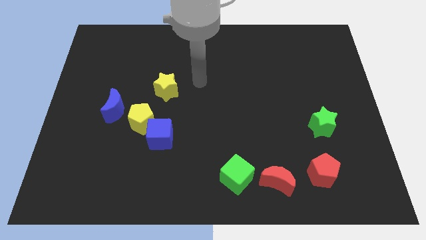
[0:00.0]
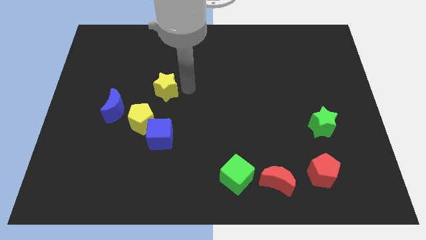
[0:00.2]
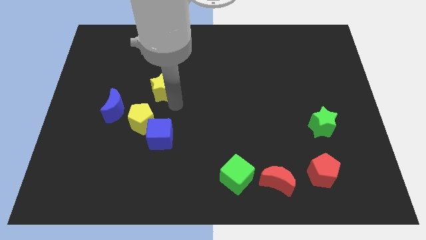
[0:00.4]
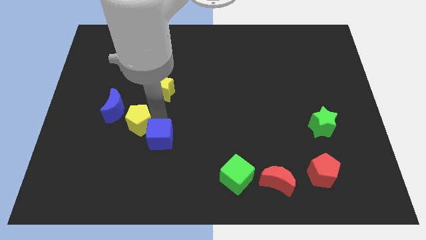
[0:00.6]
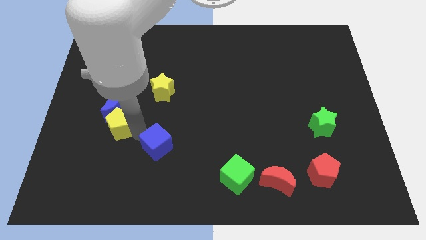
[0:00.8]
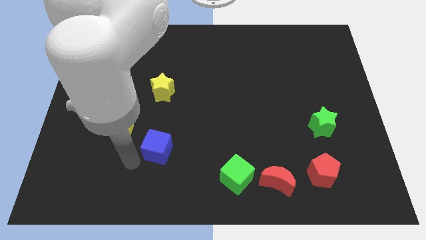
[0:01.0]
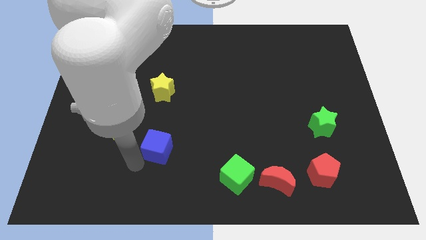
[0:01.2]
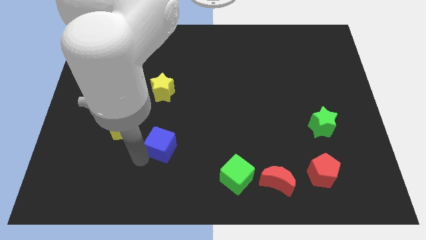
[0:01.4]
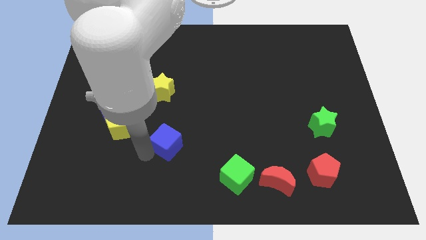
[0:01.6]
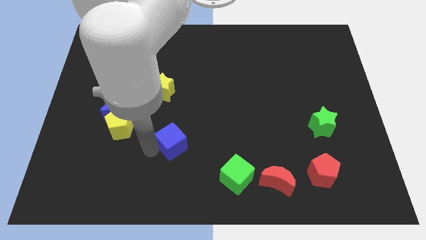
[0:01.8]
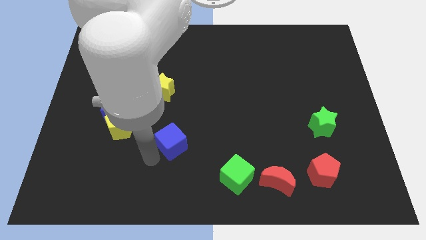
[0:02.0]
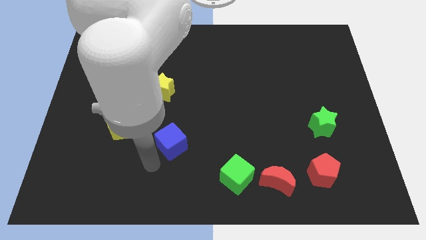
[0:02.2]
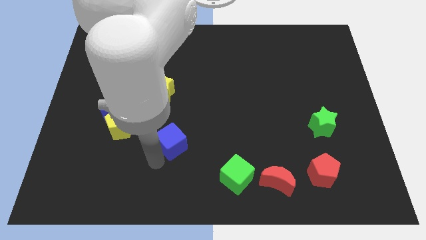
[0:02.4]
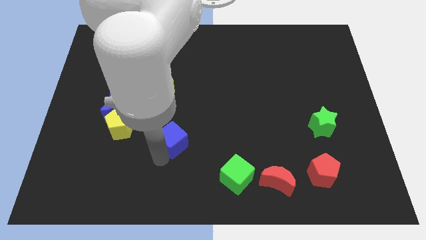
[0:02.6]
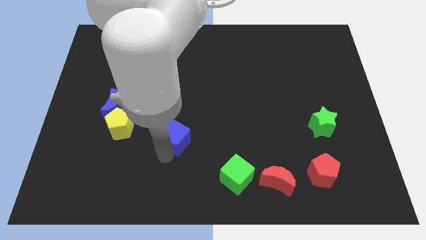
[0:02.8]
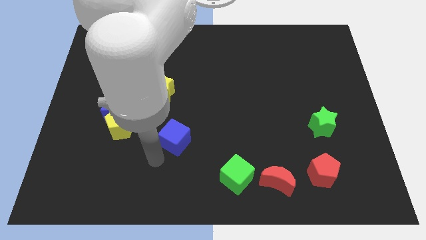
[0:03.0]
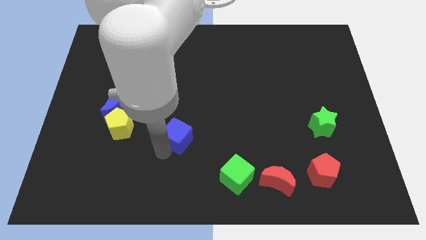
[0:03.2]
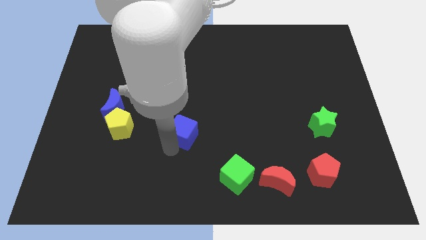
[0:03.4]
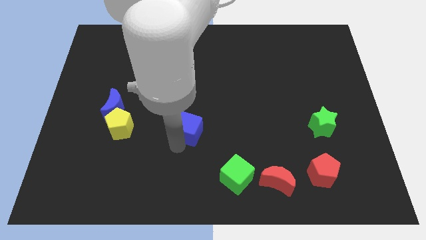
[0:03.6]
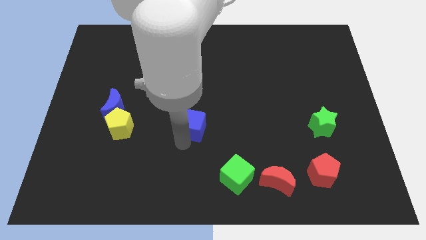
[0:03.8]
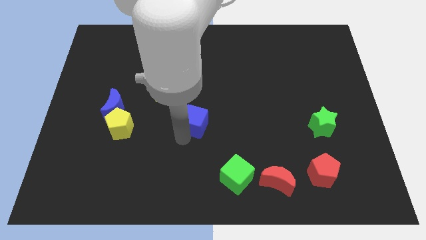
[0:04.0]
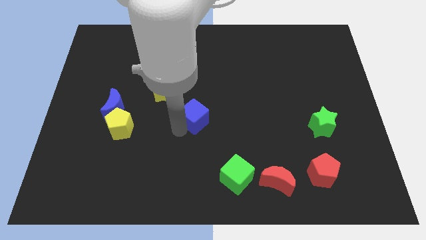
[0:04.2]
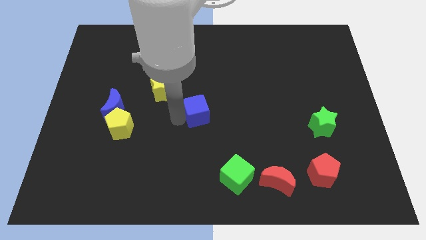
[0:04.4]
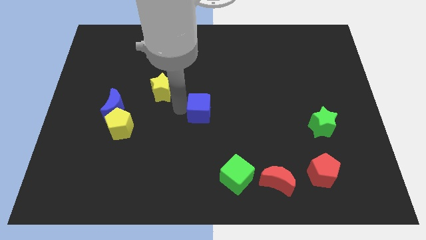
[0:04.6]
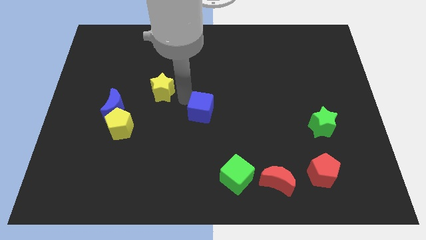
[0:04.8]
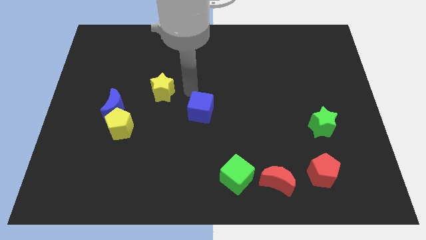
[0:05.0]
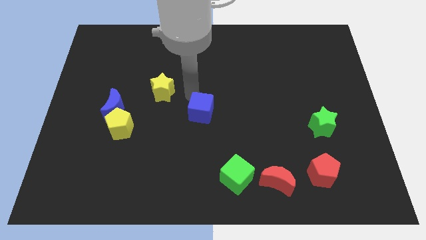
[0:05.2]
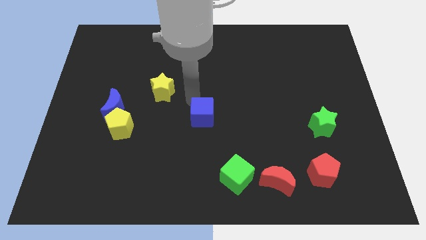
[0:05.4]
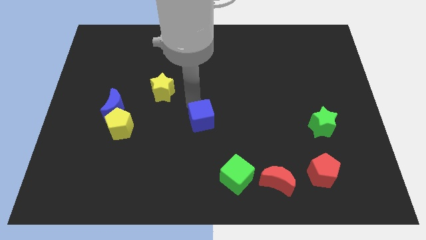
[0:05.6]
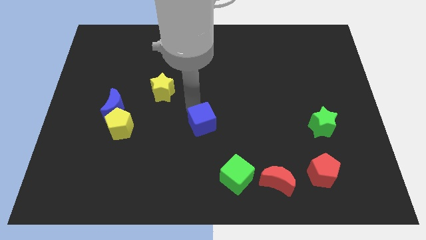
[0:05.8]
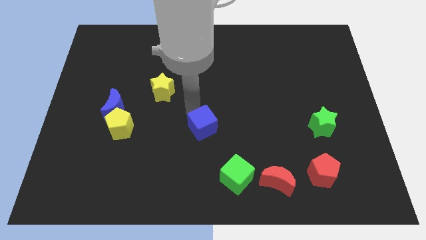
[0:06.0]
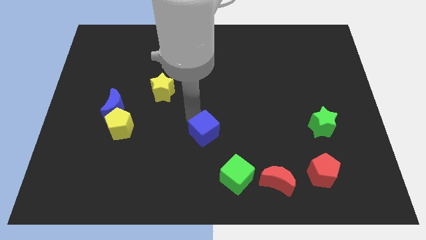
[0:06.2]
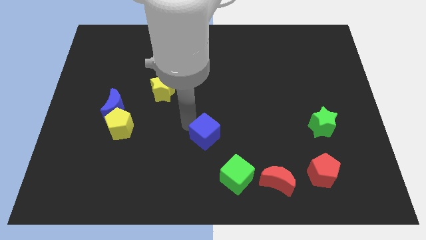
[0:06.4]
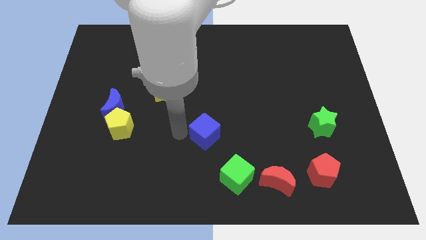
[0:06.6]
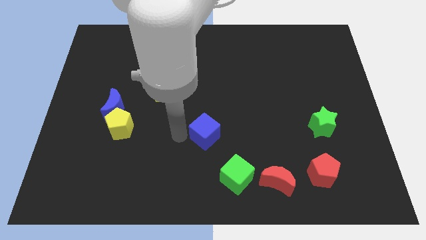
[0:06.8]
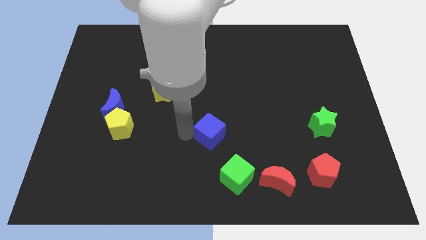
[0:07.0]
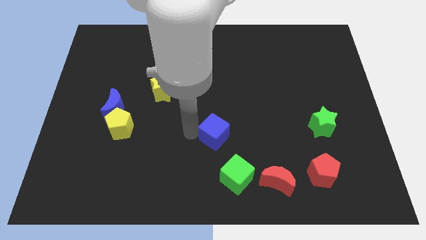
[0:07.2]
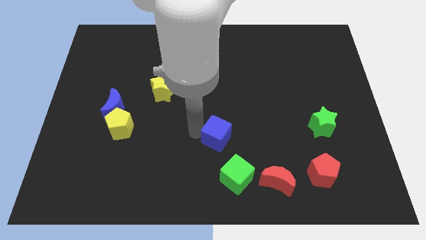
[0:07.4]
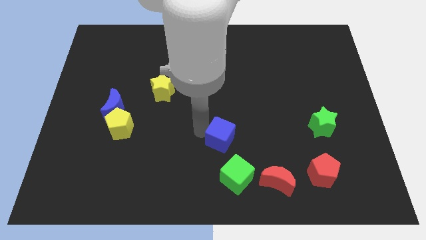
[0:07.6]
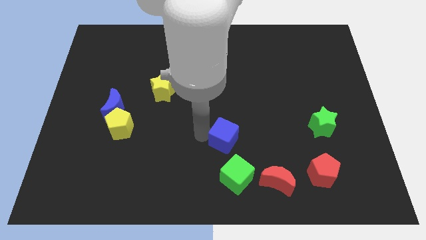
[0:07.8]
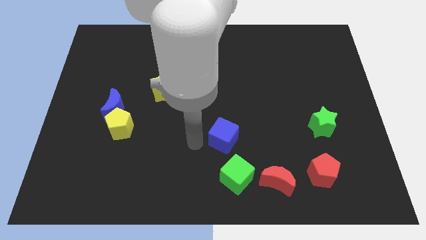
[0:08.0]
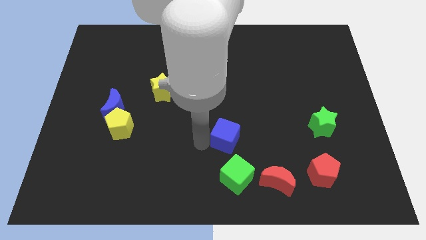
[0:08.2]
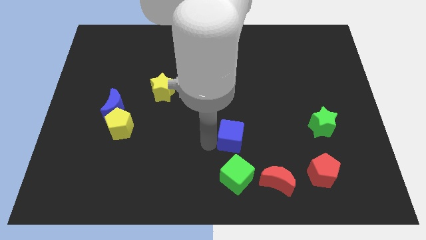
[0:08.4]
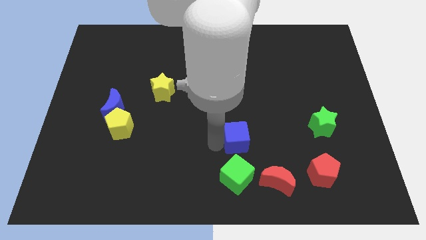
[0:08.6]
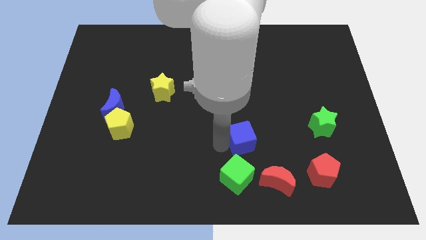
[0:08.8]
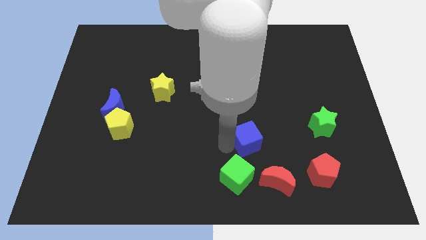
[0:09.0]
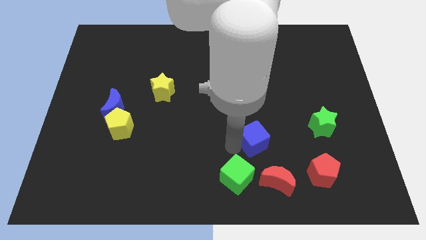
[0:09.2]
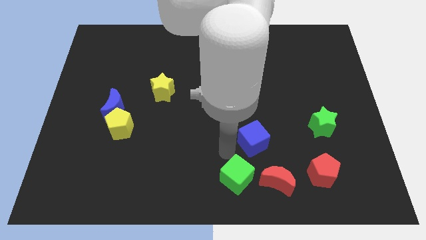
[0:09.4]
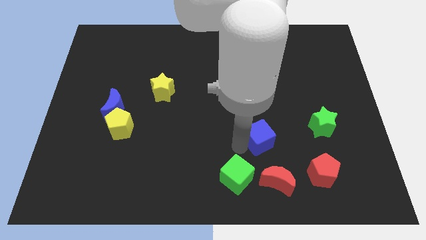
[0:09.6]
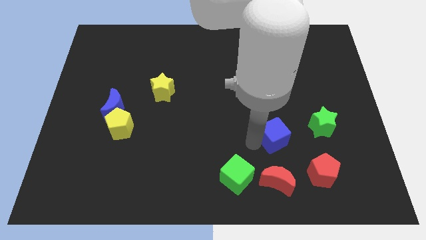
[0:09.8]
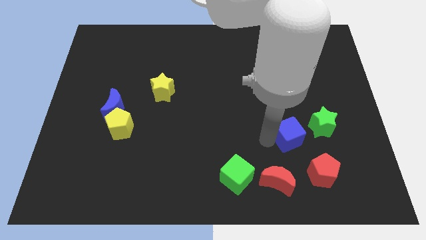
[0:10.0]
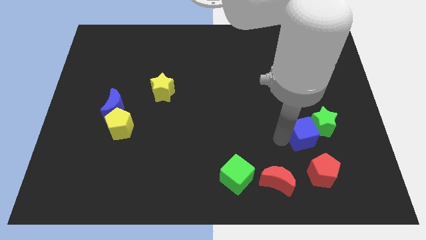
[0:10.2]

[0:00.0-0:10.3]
put the blue cube close to the green star

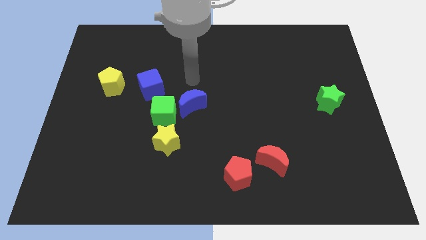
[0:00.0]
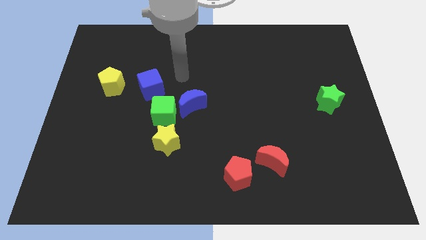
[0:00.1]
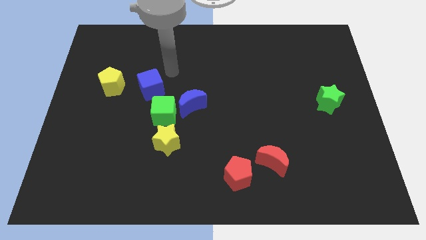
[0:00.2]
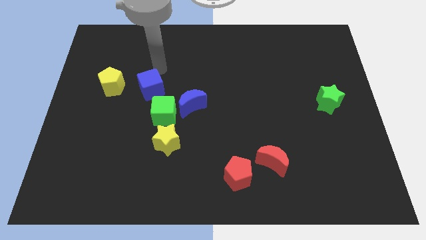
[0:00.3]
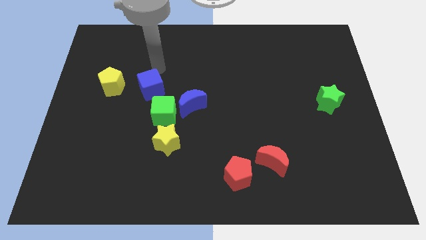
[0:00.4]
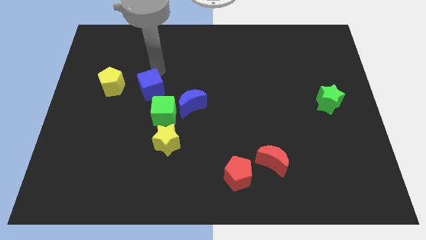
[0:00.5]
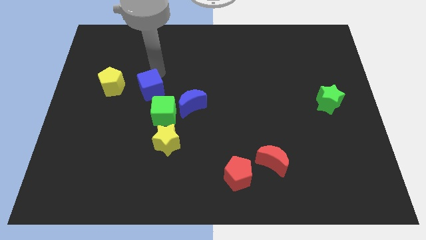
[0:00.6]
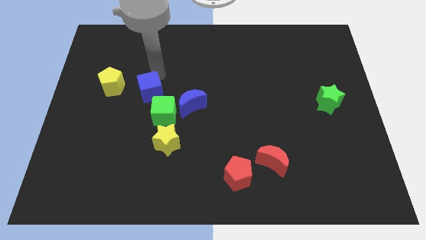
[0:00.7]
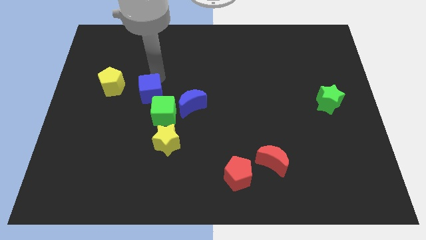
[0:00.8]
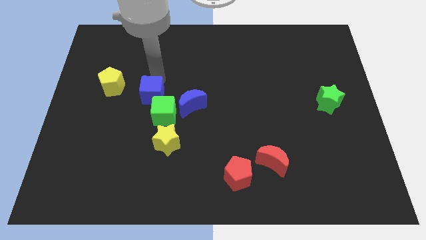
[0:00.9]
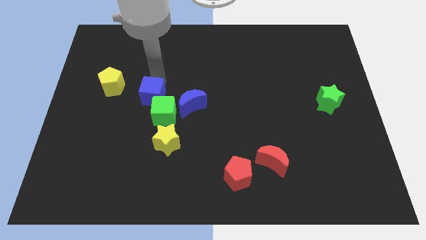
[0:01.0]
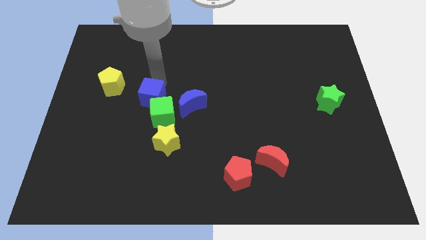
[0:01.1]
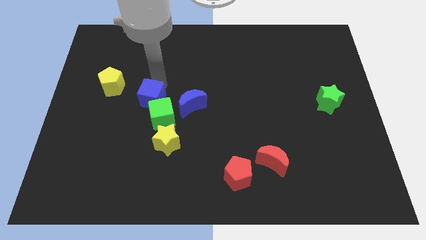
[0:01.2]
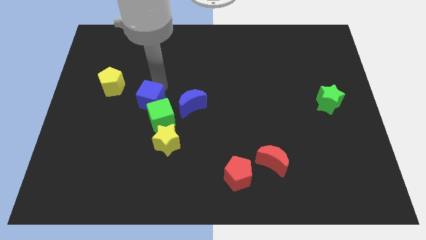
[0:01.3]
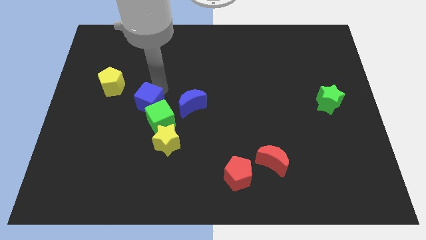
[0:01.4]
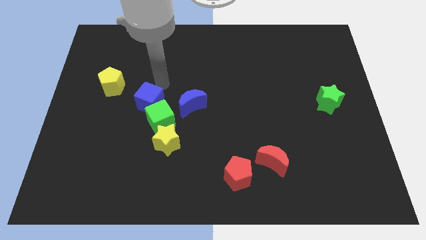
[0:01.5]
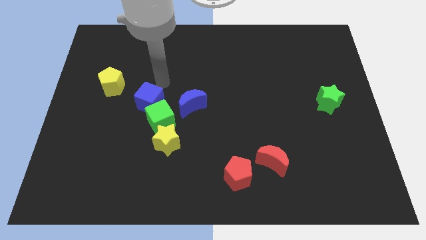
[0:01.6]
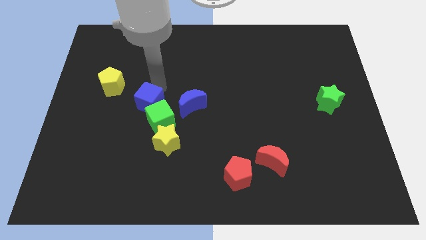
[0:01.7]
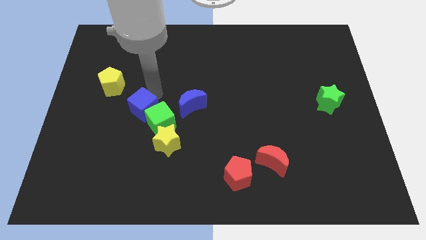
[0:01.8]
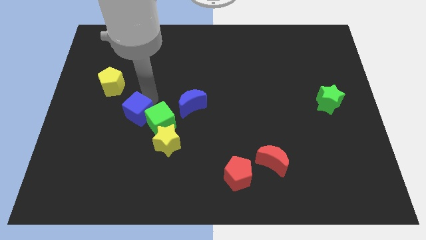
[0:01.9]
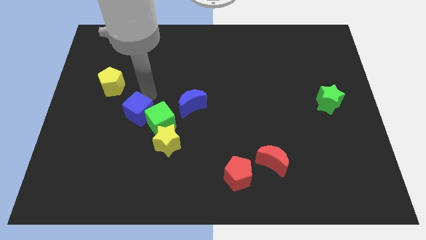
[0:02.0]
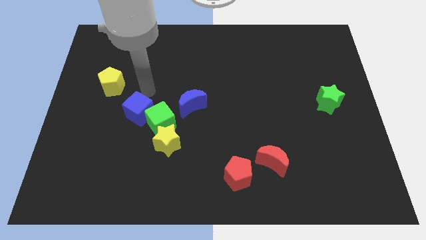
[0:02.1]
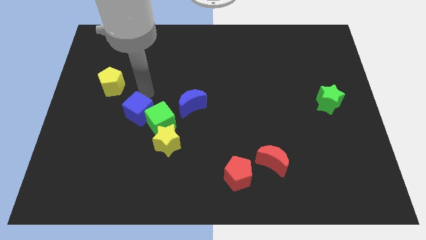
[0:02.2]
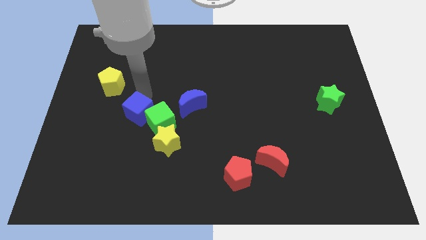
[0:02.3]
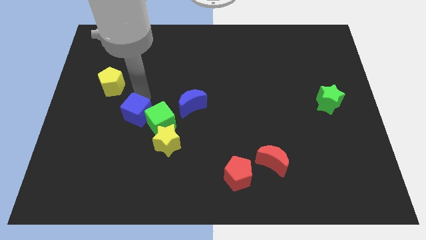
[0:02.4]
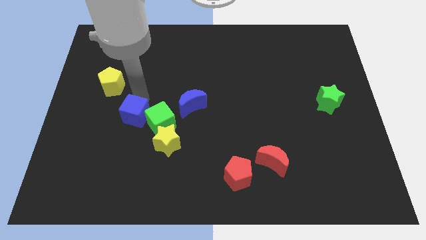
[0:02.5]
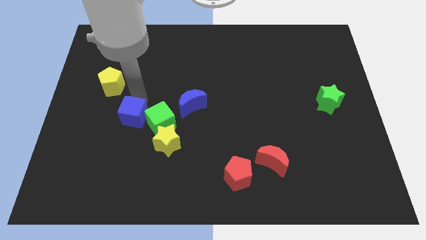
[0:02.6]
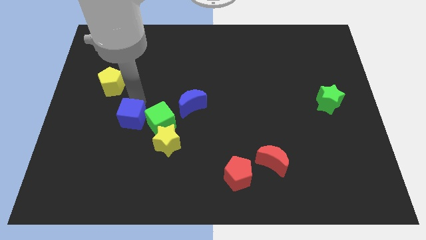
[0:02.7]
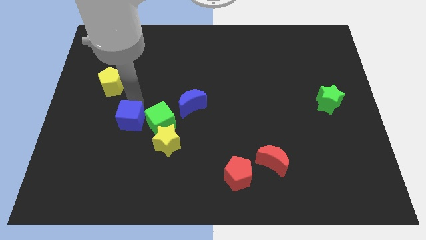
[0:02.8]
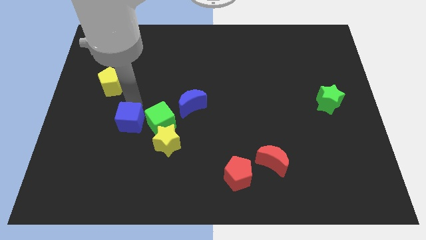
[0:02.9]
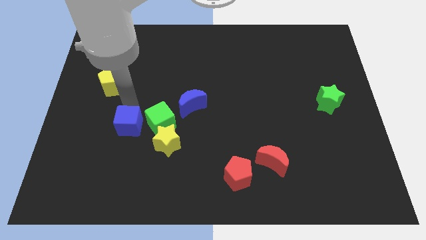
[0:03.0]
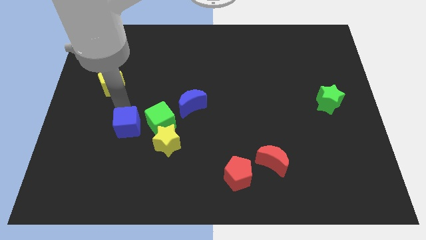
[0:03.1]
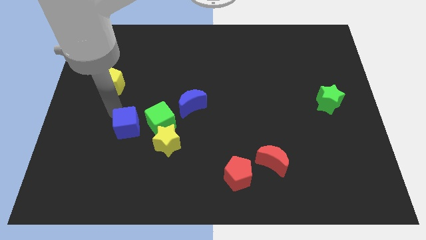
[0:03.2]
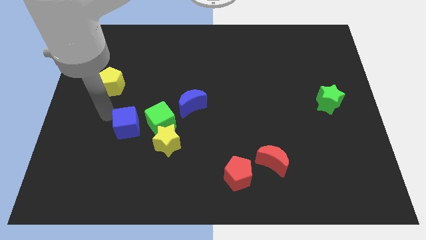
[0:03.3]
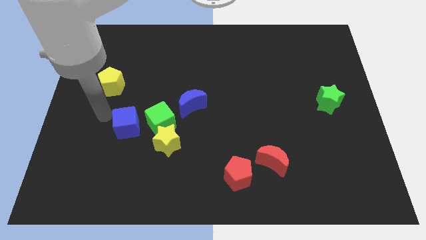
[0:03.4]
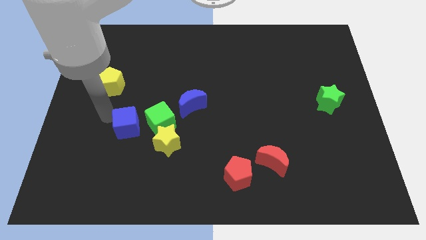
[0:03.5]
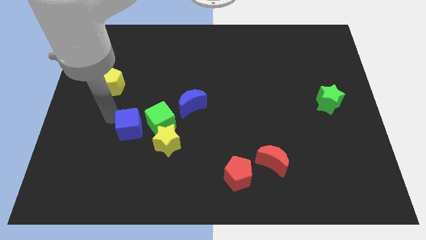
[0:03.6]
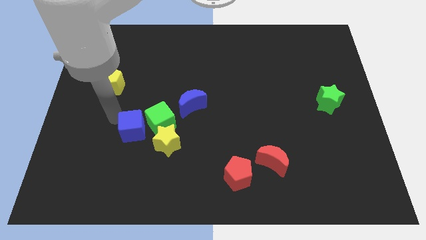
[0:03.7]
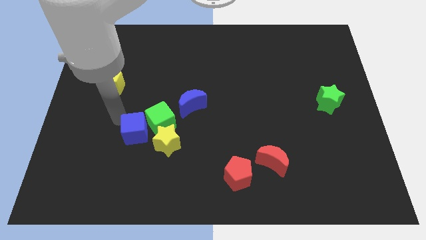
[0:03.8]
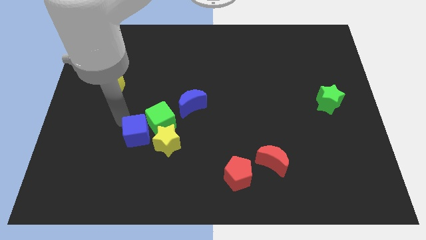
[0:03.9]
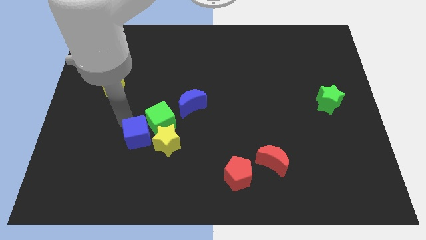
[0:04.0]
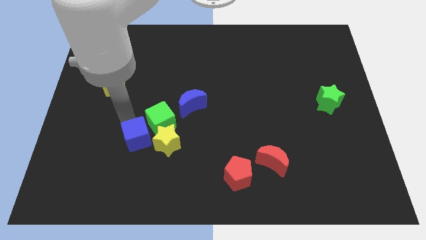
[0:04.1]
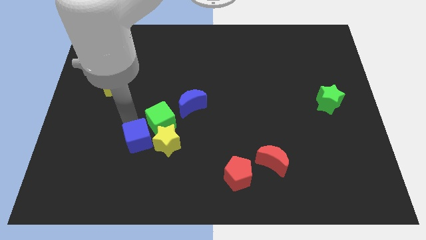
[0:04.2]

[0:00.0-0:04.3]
move the blue cube towards the yellow star
